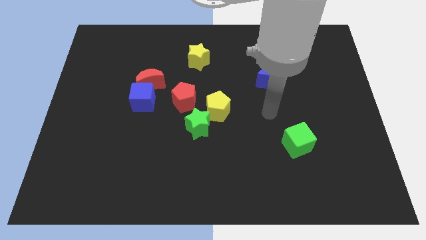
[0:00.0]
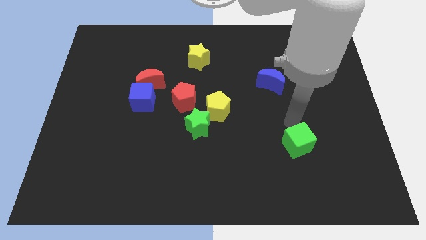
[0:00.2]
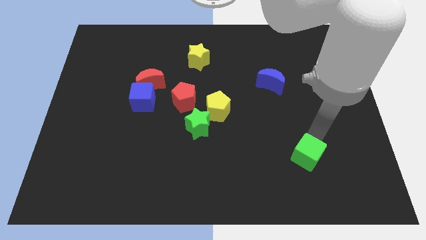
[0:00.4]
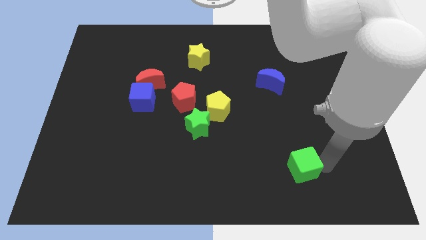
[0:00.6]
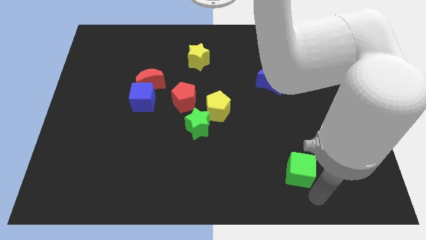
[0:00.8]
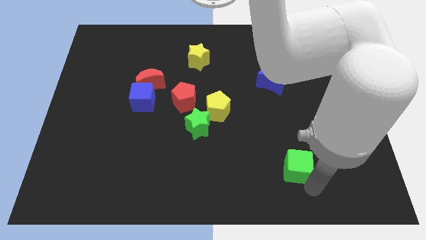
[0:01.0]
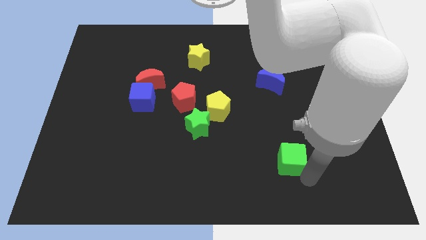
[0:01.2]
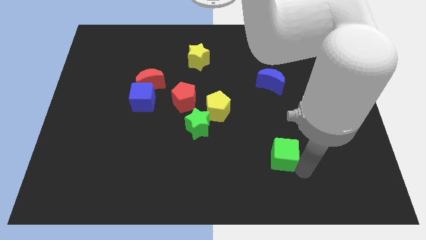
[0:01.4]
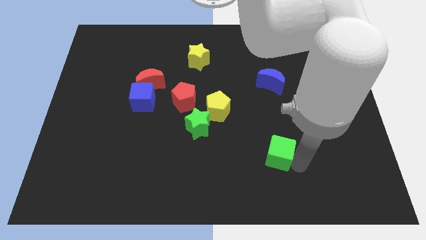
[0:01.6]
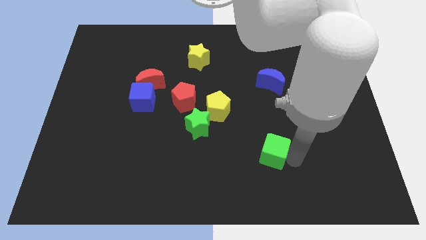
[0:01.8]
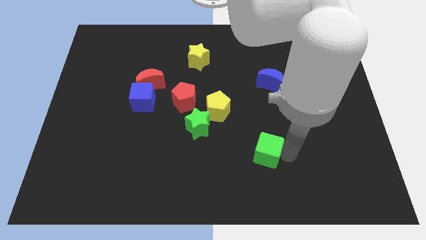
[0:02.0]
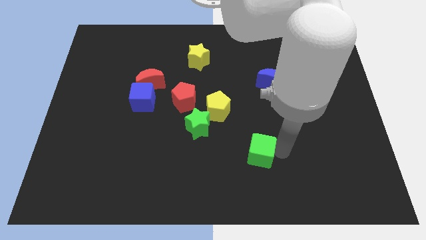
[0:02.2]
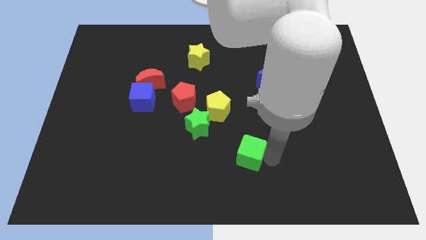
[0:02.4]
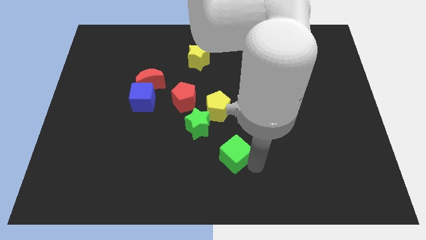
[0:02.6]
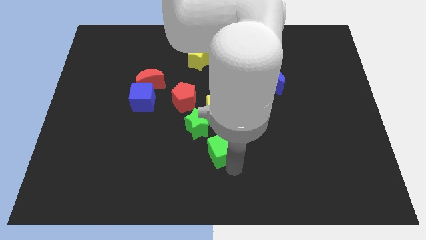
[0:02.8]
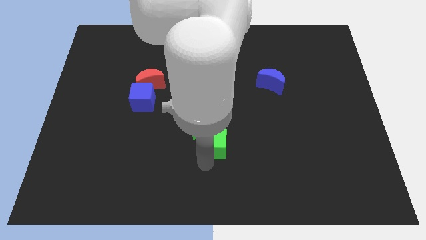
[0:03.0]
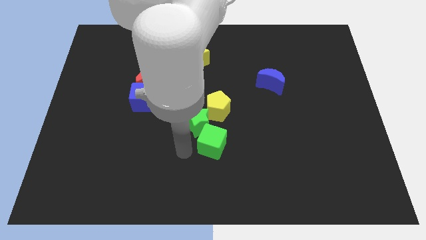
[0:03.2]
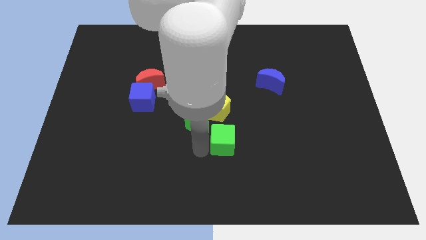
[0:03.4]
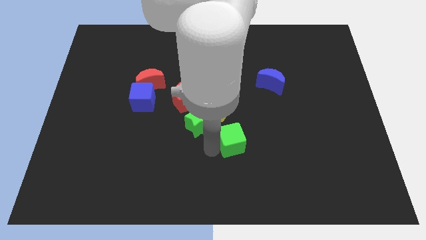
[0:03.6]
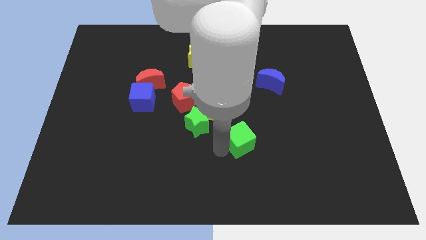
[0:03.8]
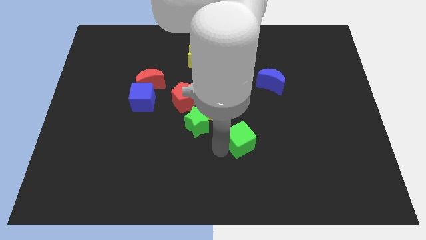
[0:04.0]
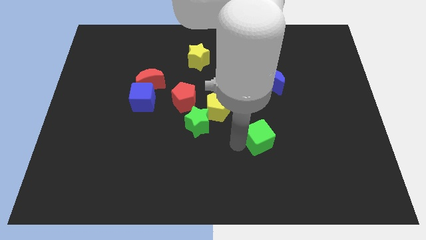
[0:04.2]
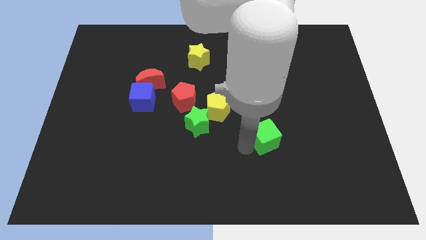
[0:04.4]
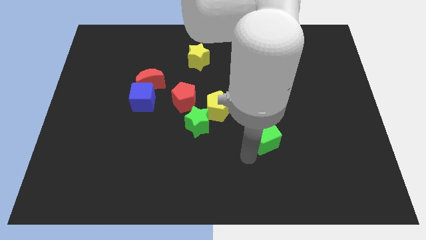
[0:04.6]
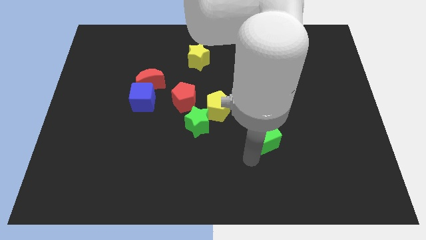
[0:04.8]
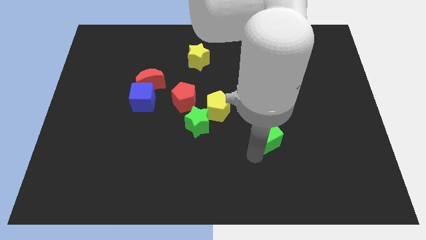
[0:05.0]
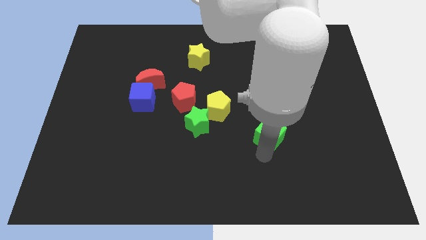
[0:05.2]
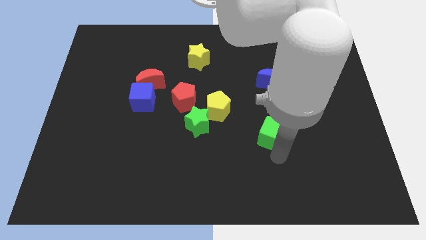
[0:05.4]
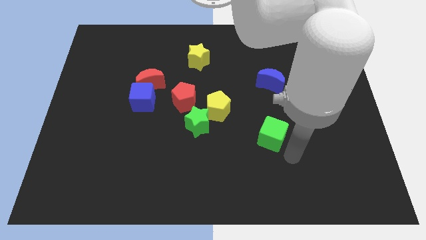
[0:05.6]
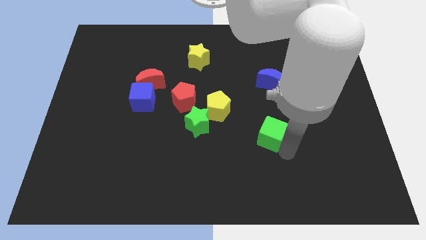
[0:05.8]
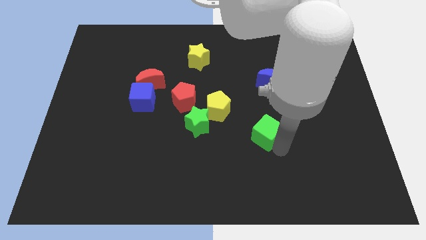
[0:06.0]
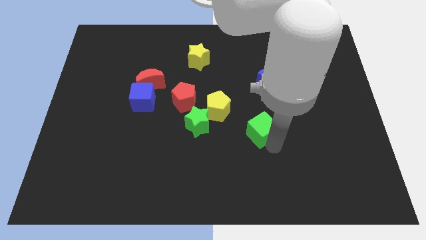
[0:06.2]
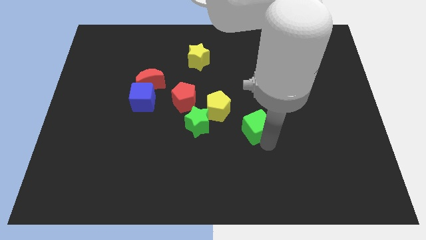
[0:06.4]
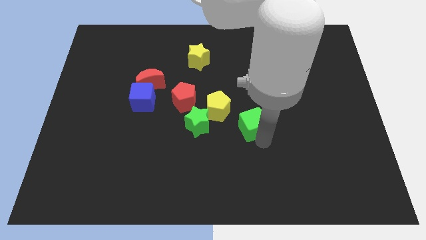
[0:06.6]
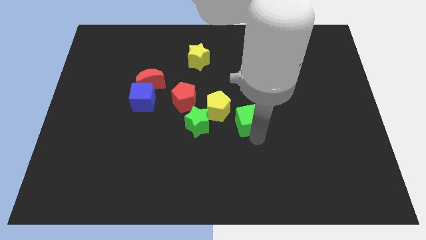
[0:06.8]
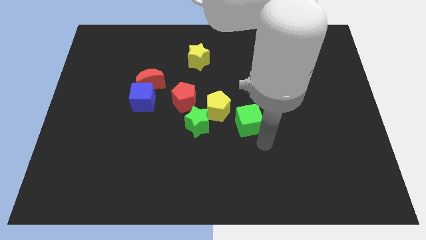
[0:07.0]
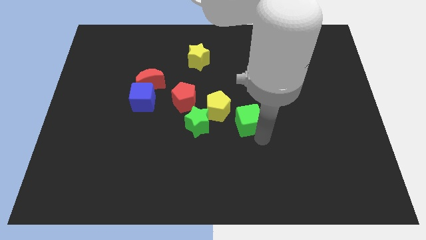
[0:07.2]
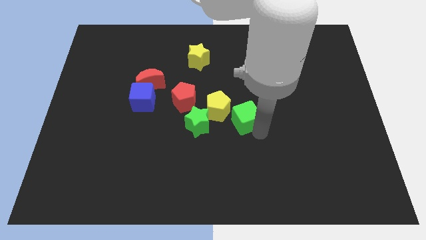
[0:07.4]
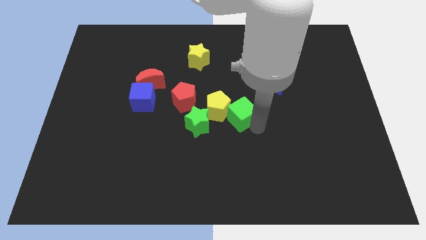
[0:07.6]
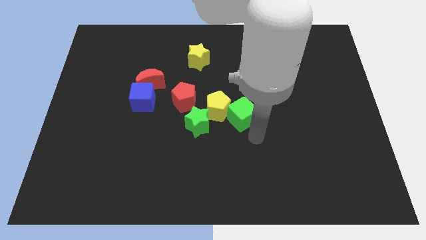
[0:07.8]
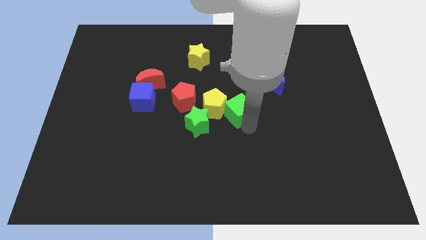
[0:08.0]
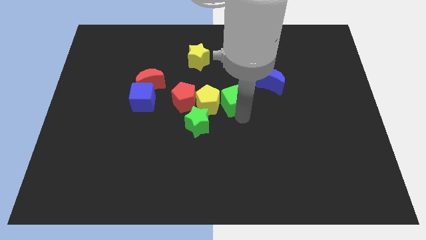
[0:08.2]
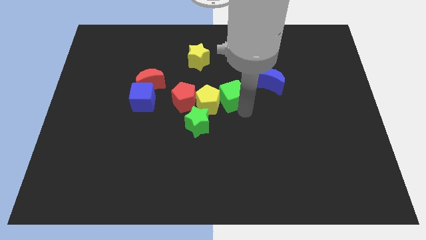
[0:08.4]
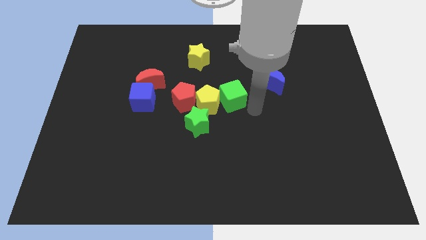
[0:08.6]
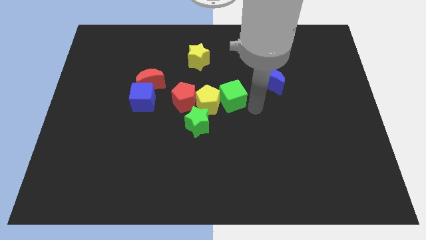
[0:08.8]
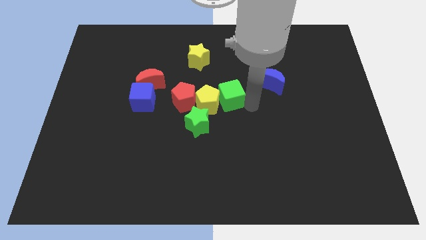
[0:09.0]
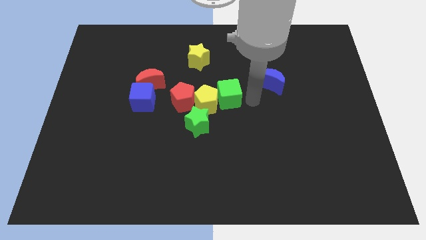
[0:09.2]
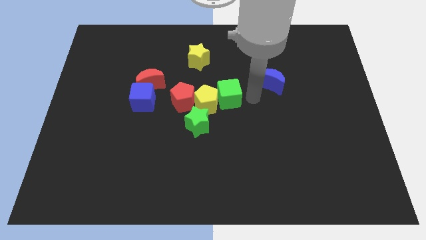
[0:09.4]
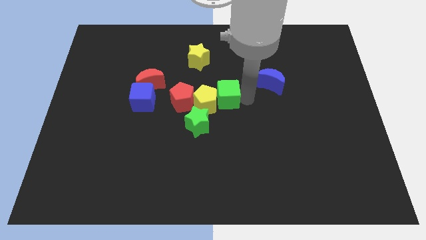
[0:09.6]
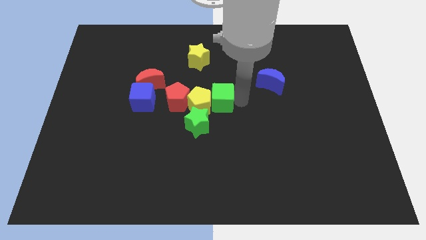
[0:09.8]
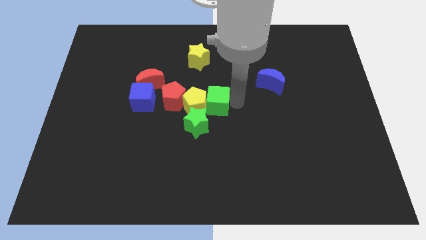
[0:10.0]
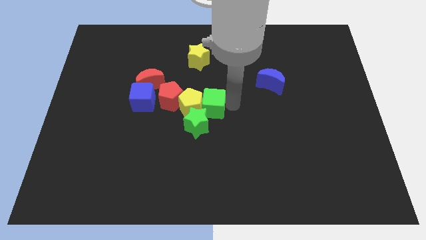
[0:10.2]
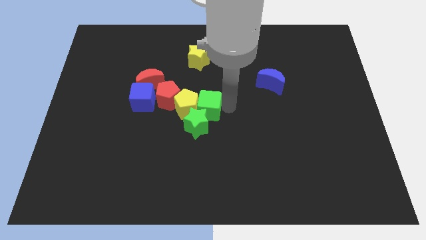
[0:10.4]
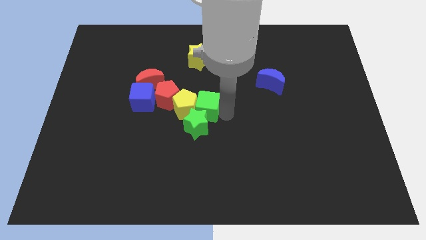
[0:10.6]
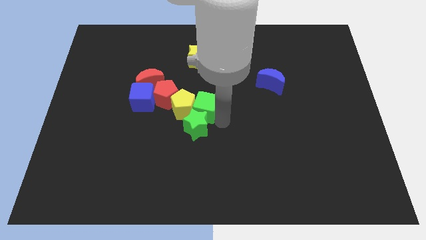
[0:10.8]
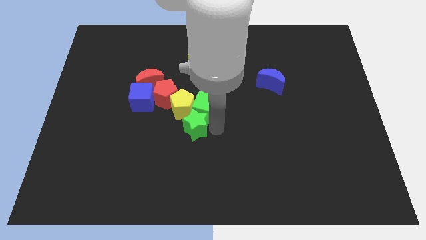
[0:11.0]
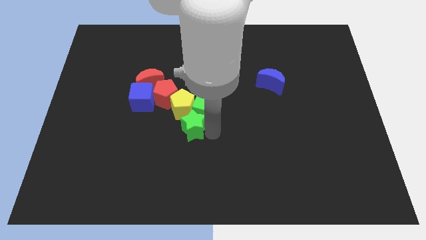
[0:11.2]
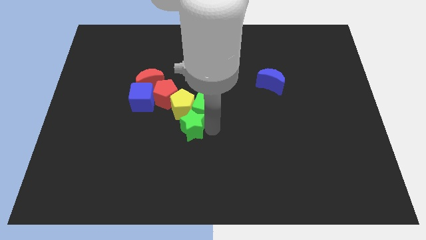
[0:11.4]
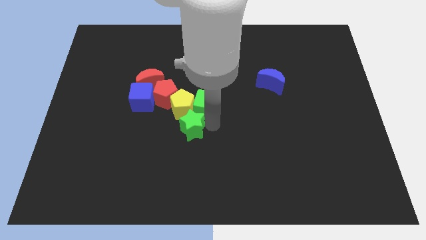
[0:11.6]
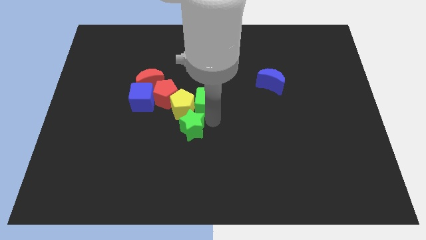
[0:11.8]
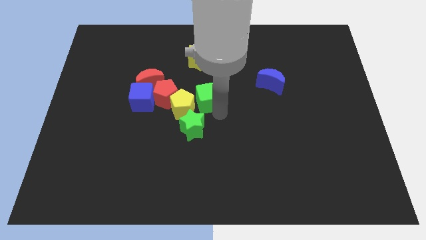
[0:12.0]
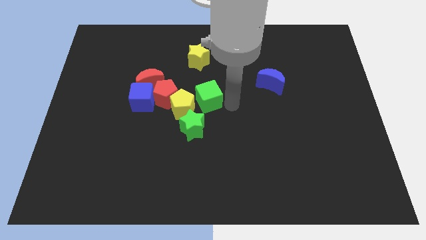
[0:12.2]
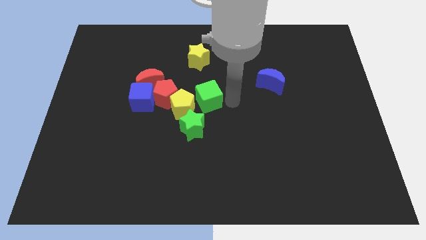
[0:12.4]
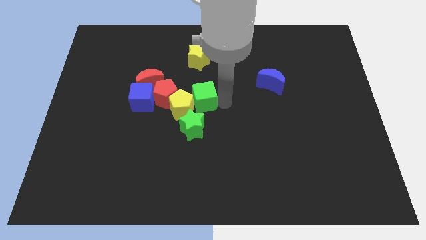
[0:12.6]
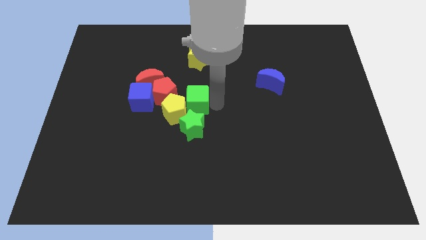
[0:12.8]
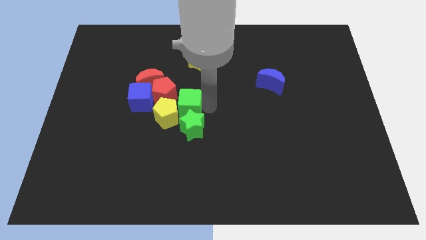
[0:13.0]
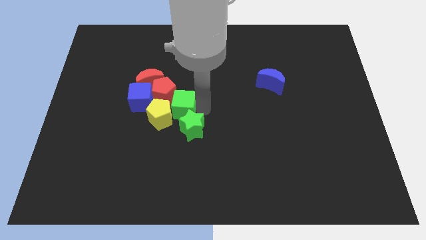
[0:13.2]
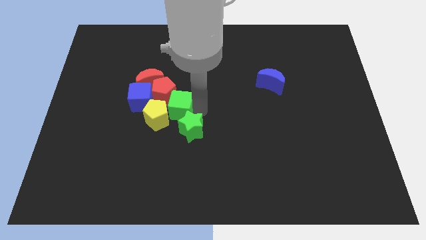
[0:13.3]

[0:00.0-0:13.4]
push the green cube to the red pentagon

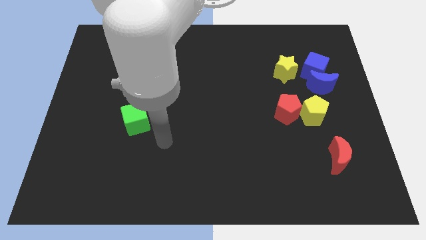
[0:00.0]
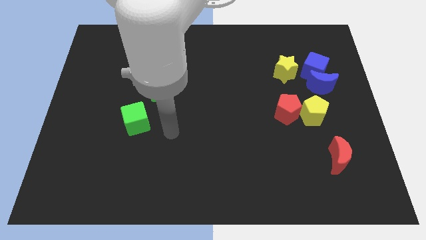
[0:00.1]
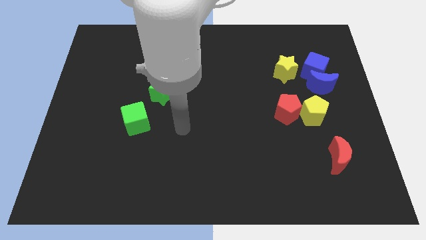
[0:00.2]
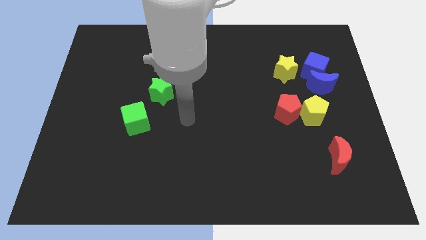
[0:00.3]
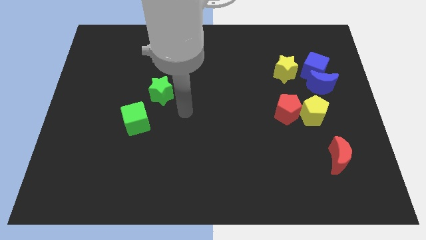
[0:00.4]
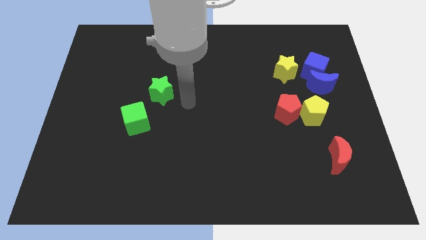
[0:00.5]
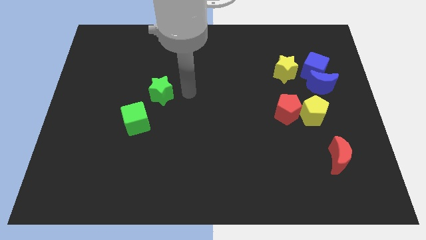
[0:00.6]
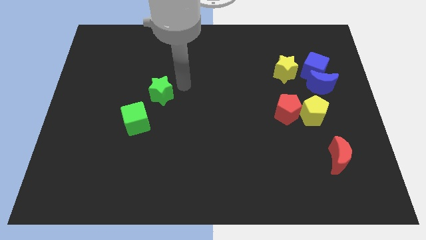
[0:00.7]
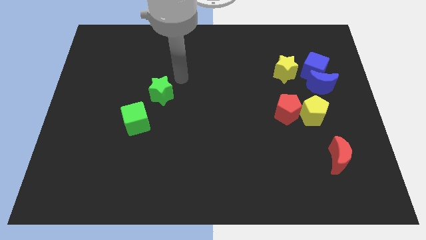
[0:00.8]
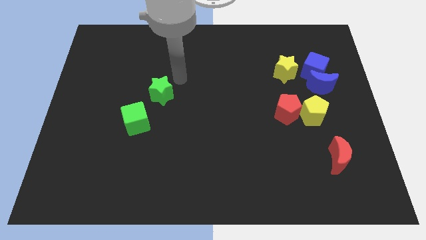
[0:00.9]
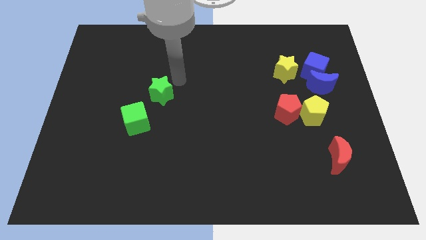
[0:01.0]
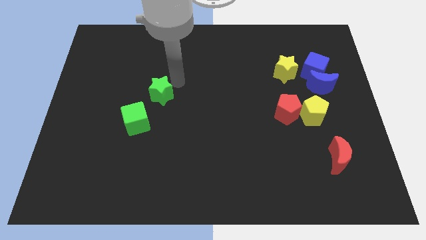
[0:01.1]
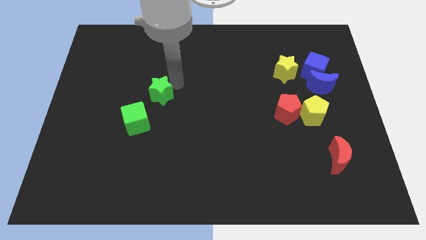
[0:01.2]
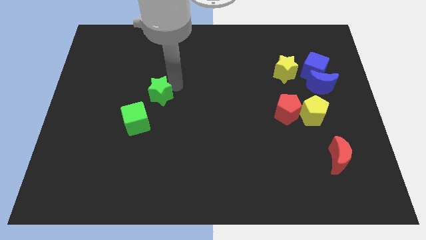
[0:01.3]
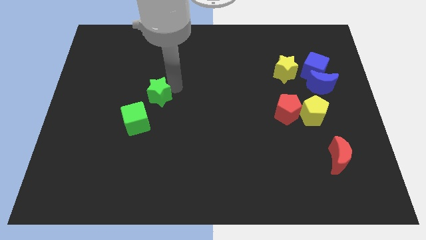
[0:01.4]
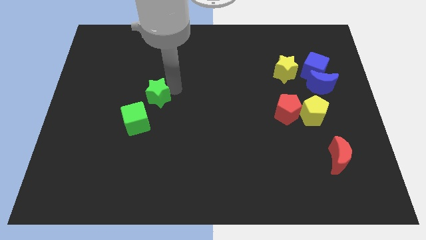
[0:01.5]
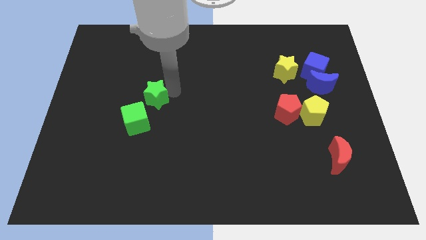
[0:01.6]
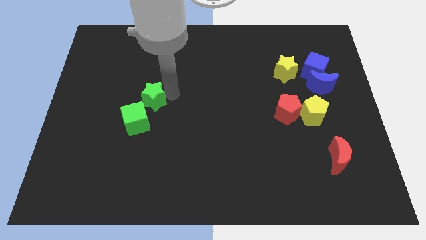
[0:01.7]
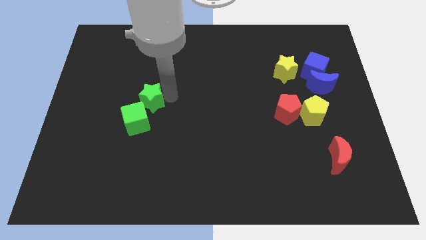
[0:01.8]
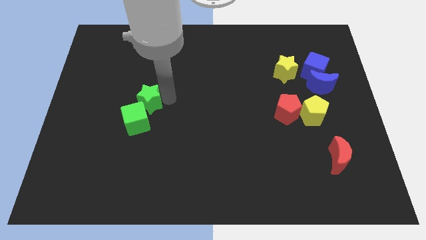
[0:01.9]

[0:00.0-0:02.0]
slide the green star next to the green cube
